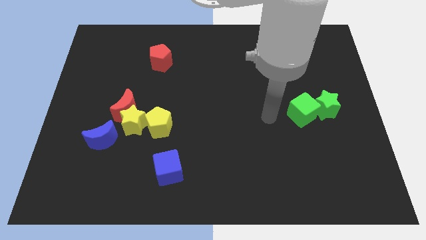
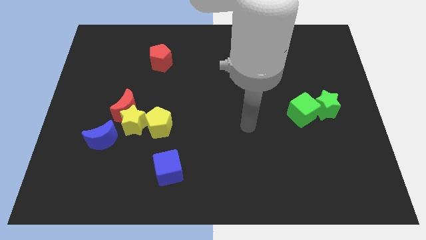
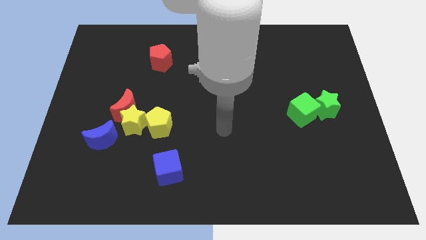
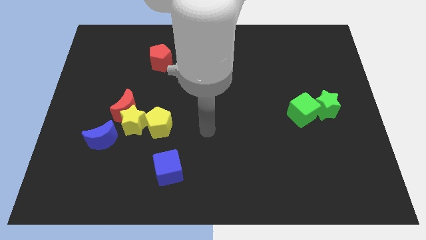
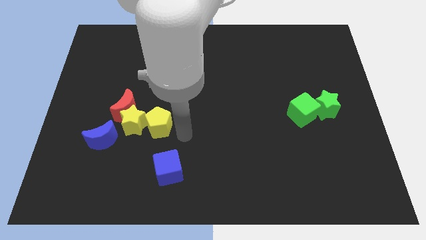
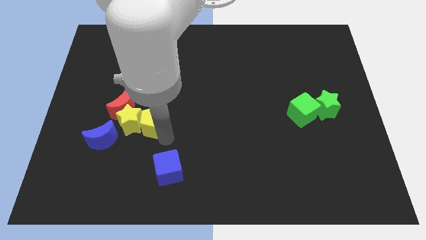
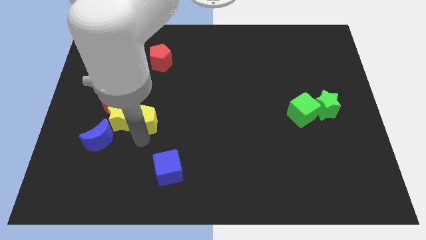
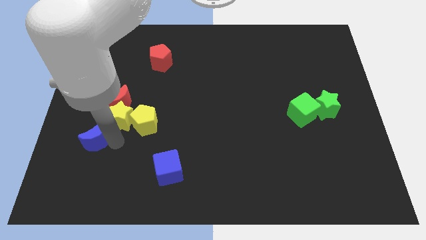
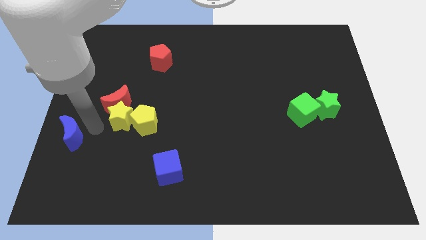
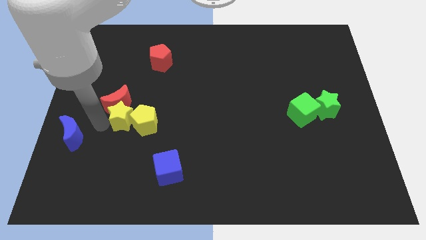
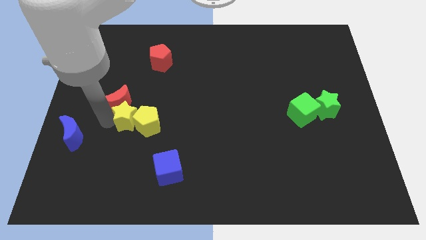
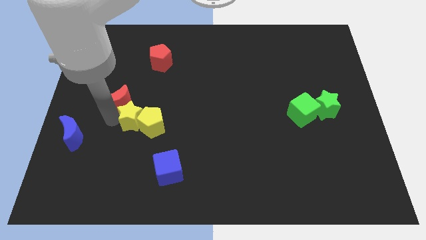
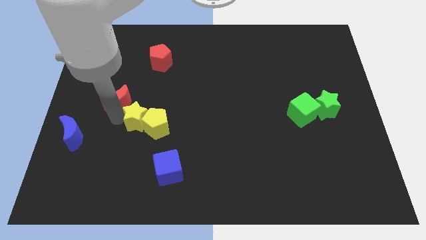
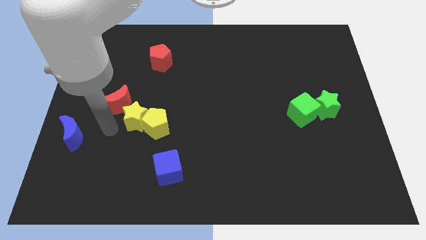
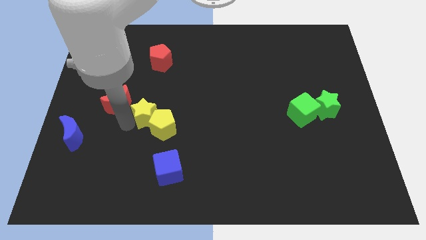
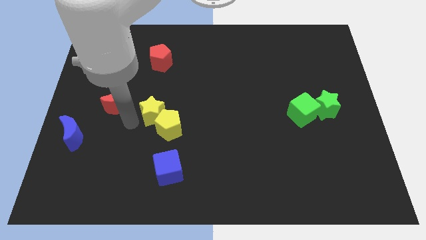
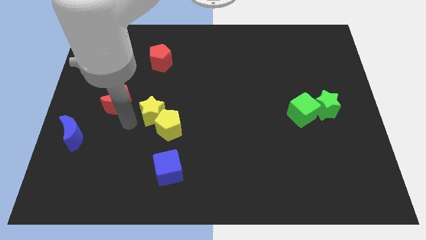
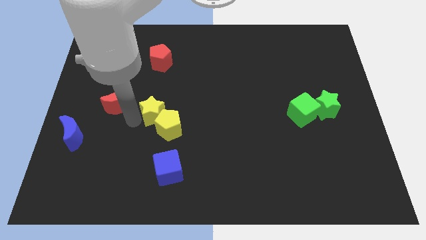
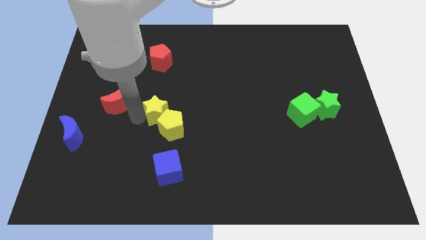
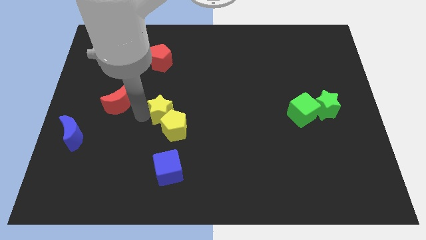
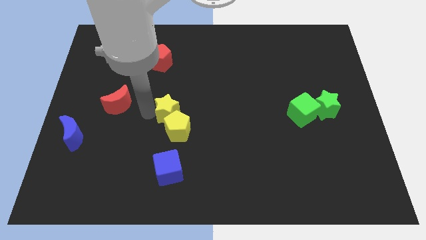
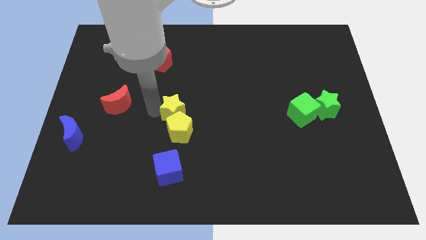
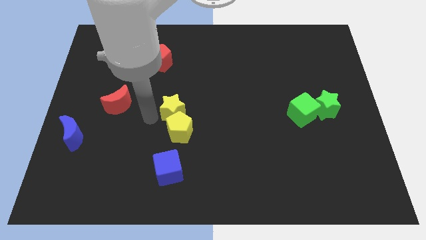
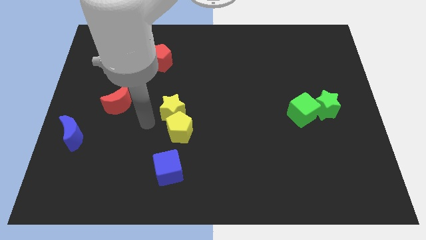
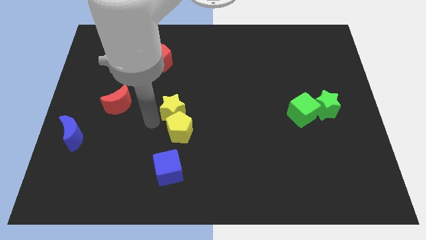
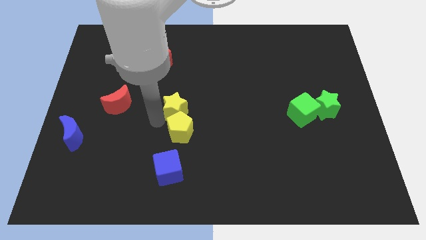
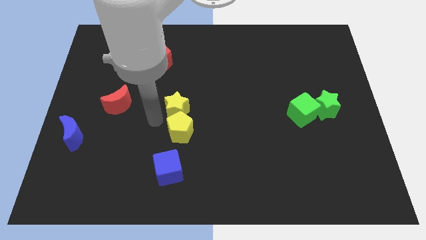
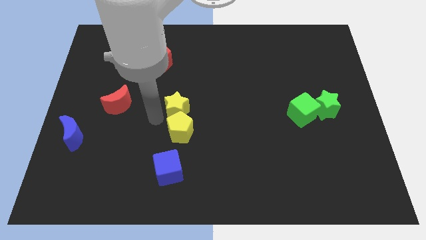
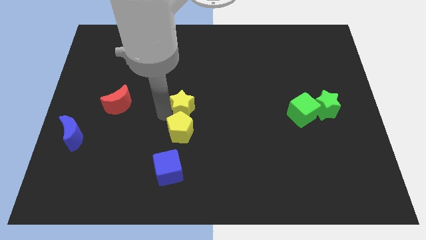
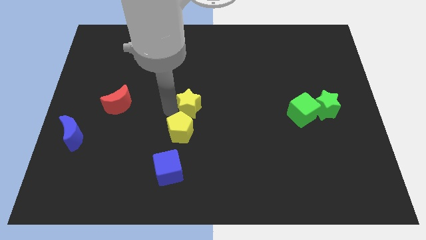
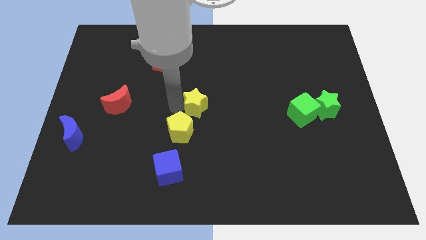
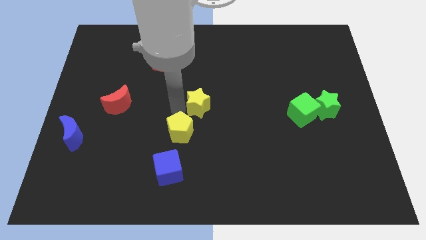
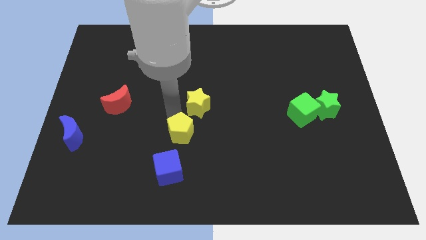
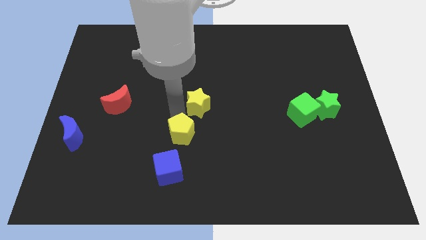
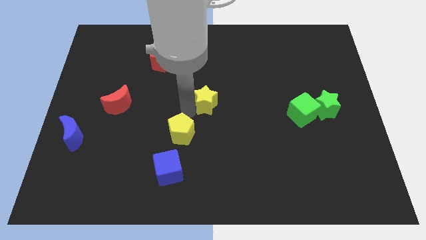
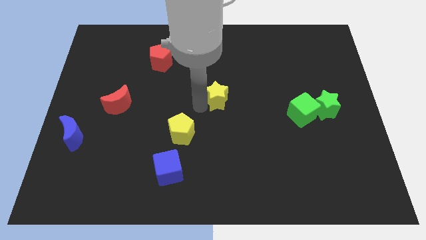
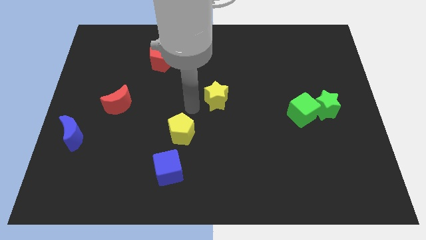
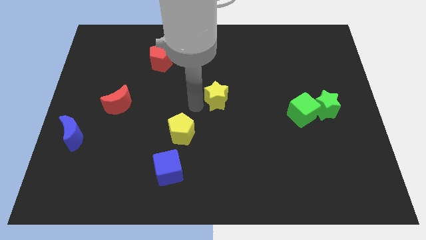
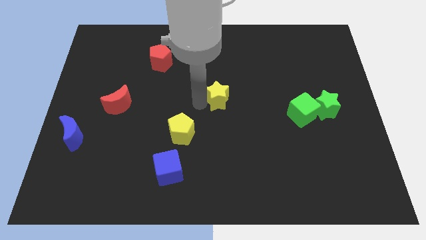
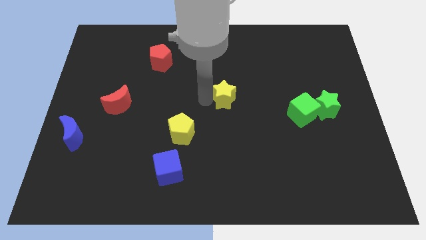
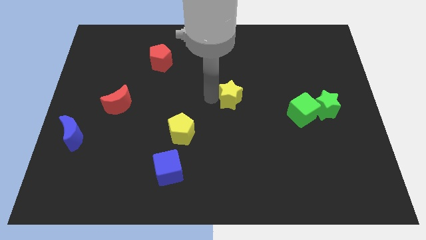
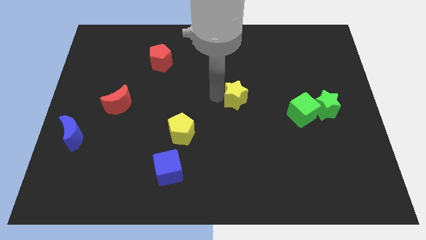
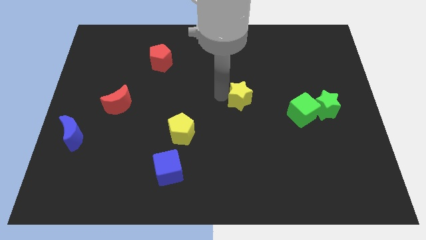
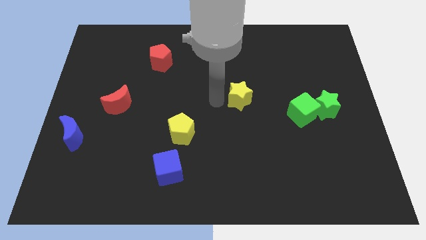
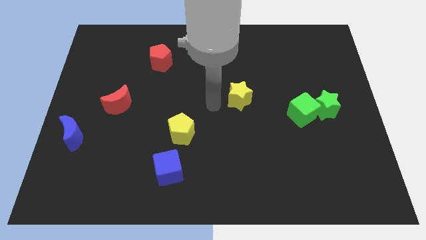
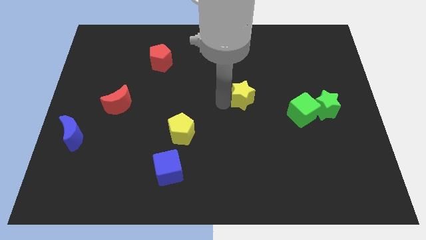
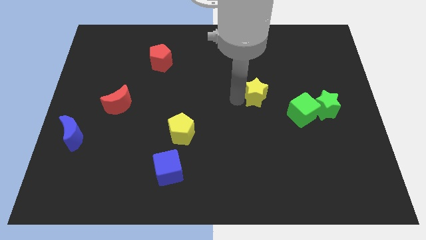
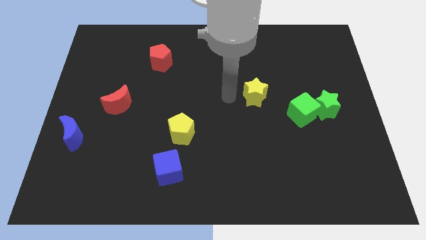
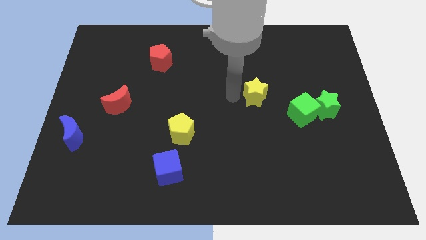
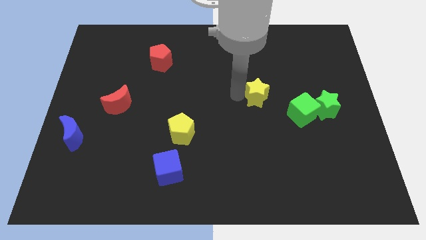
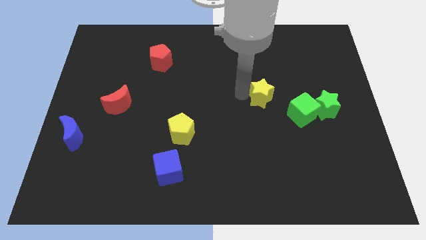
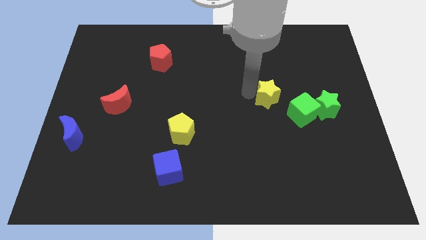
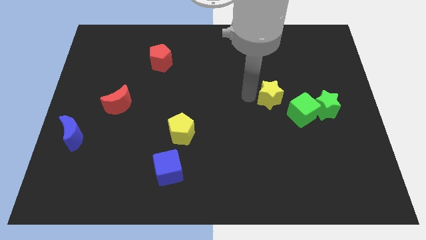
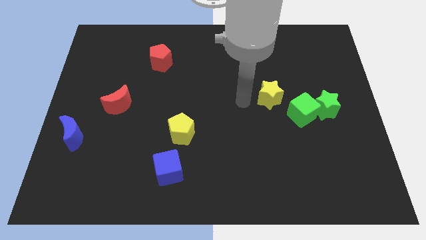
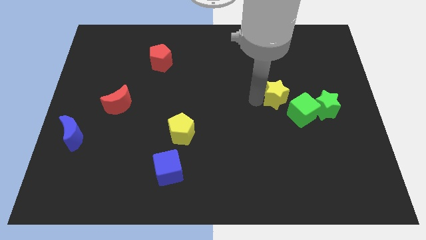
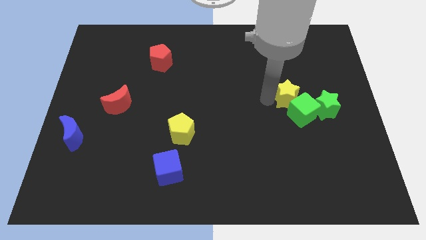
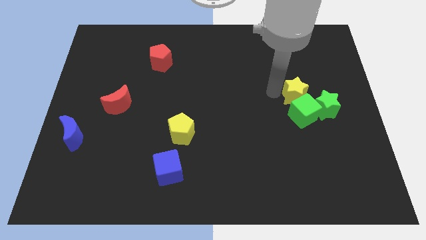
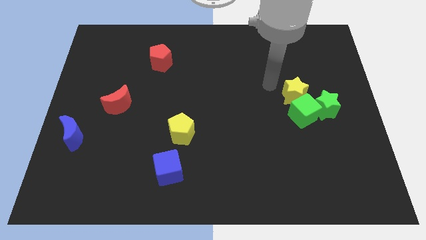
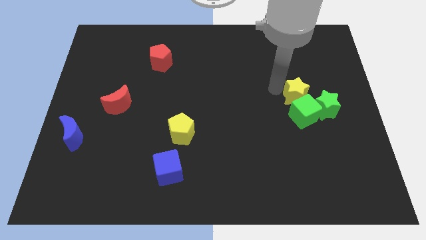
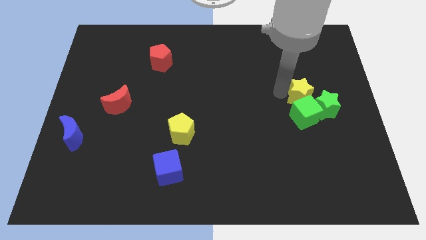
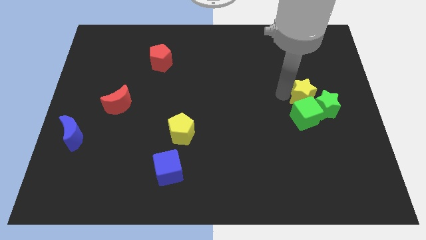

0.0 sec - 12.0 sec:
push the yellow star next to the green star

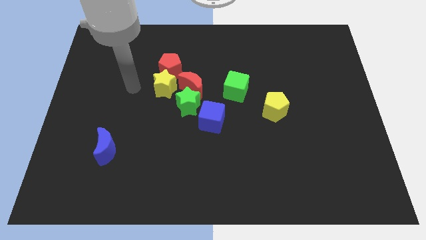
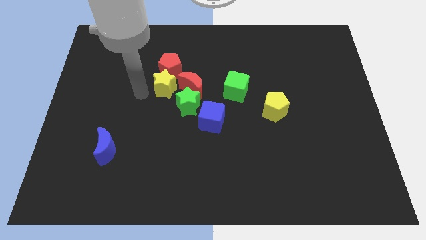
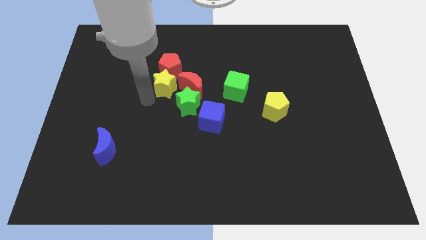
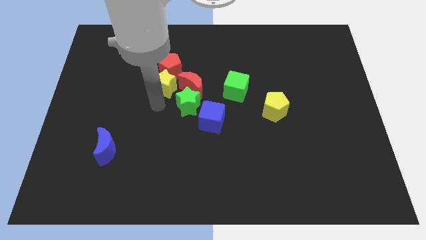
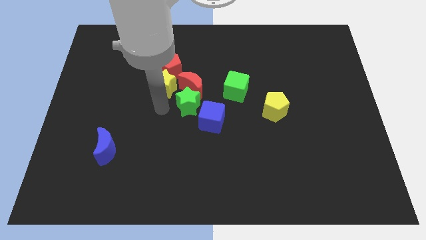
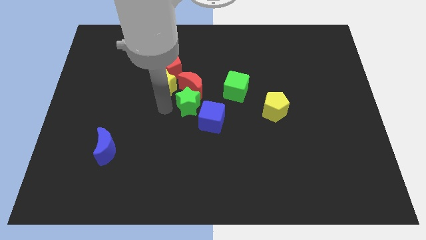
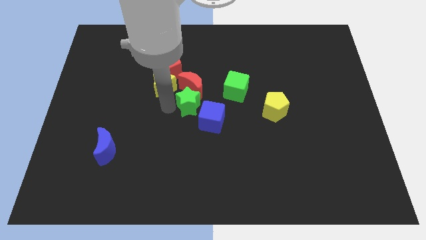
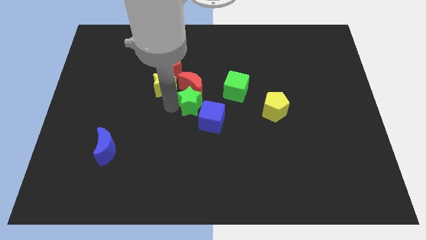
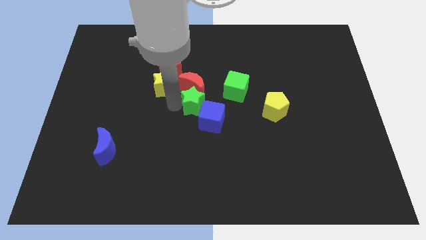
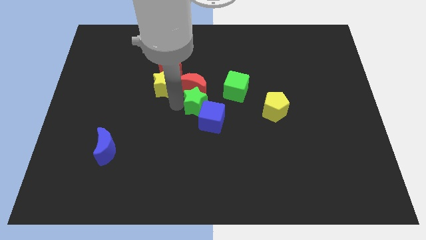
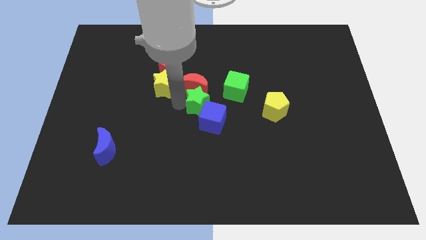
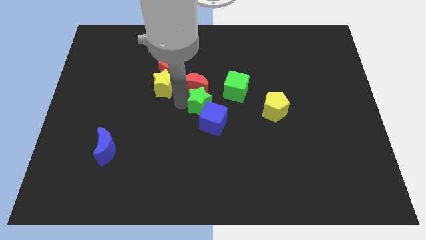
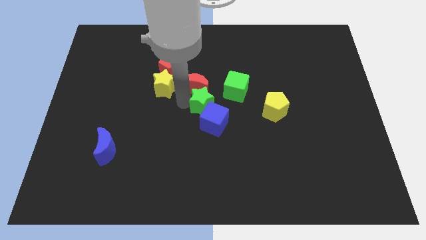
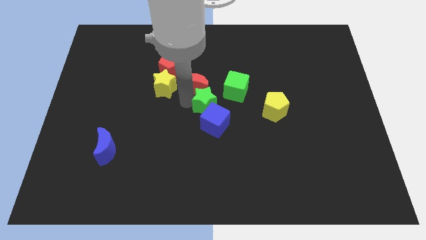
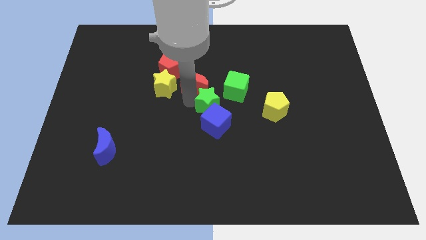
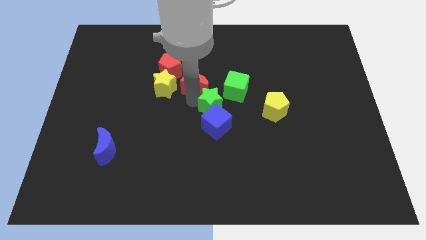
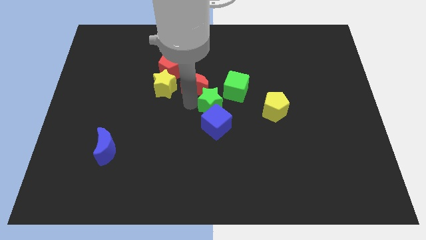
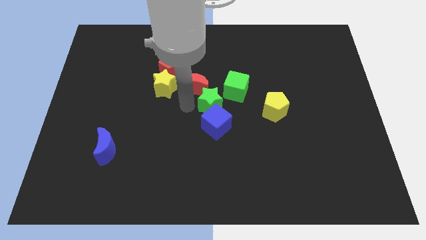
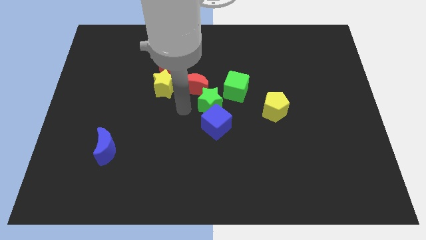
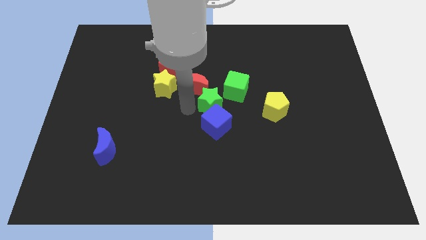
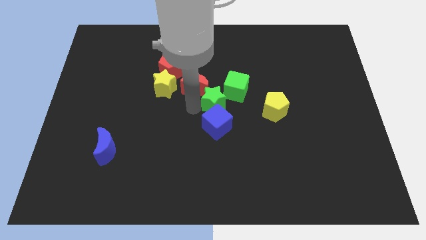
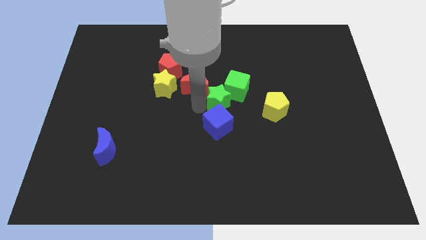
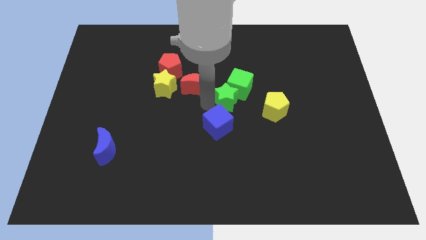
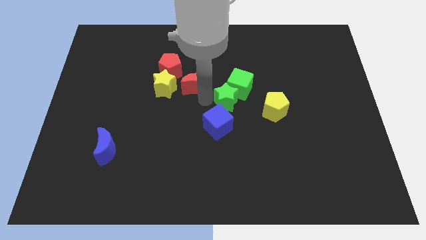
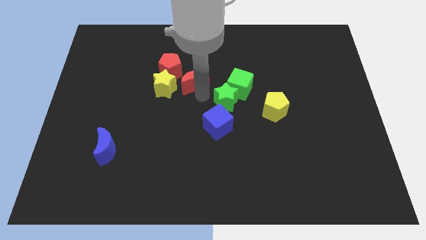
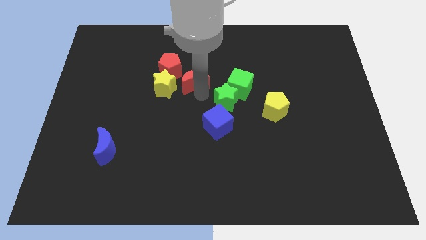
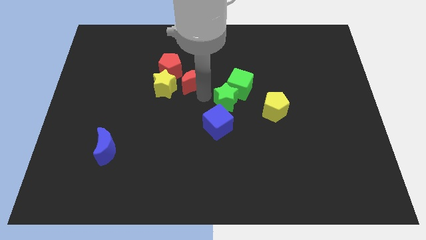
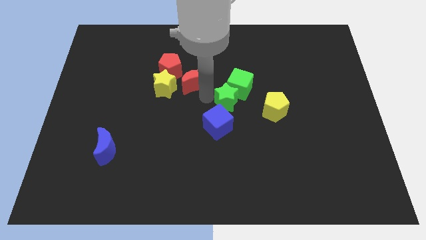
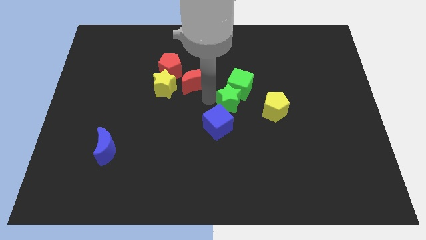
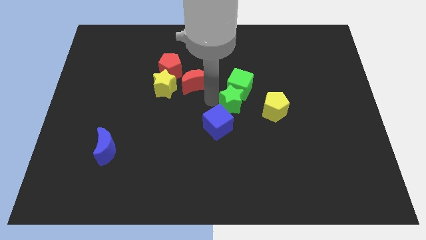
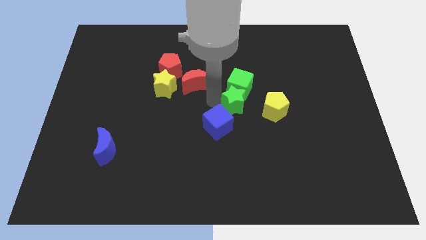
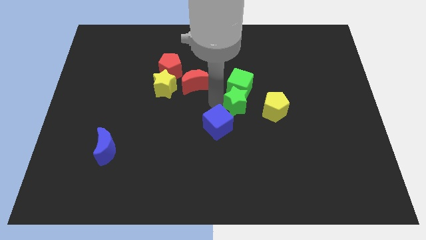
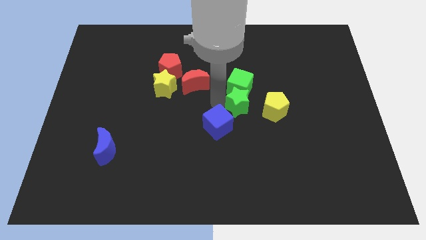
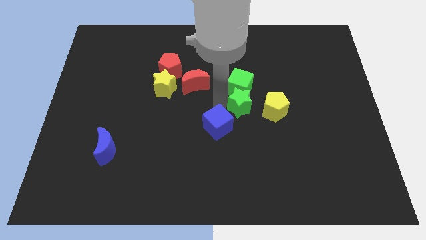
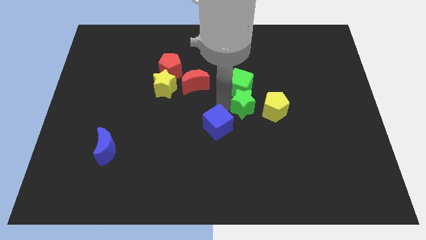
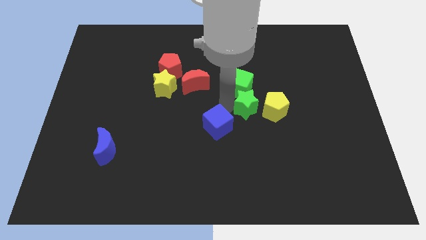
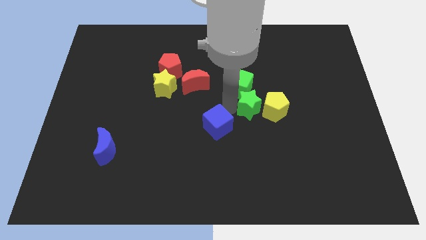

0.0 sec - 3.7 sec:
move the green star towards the yellow pentagon
